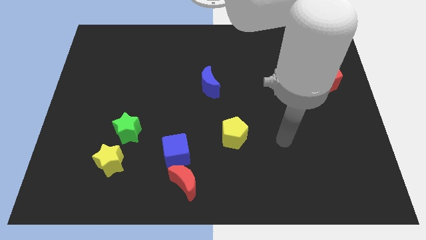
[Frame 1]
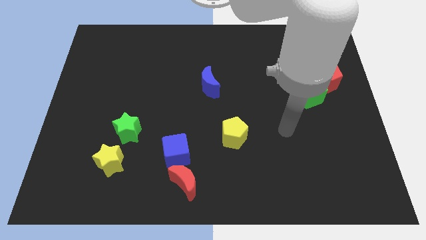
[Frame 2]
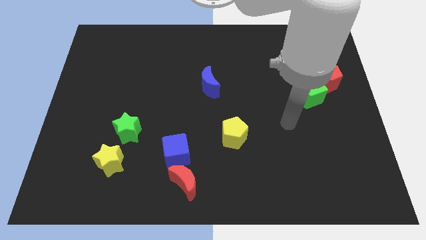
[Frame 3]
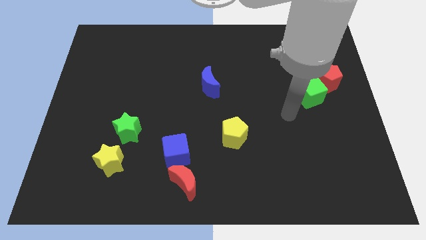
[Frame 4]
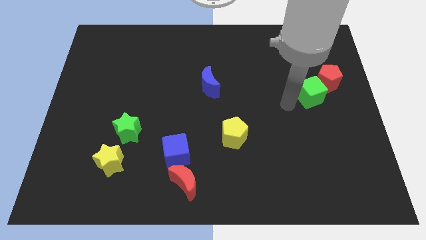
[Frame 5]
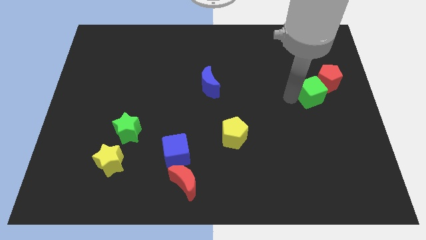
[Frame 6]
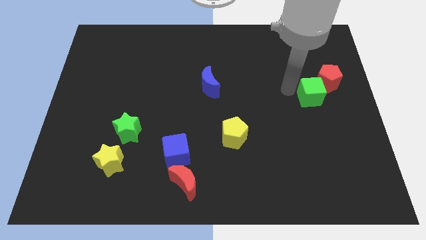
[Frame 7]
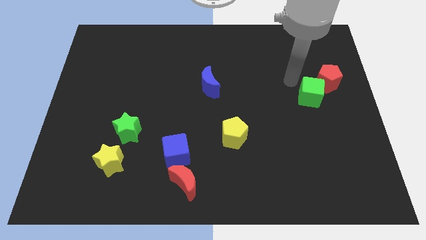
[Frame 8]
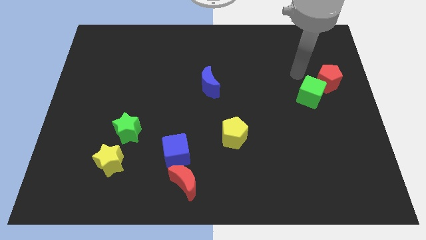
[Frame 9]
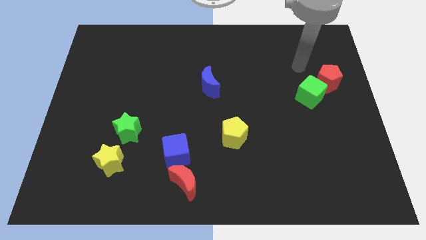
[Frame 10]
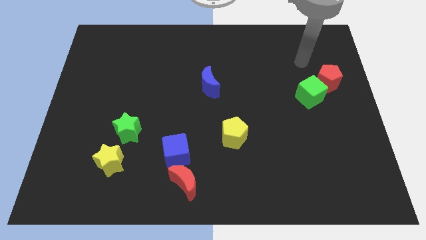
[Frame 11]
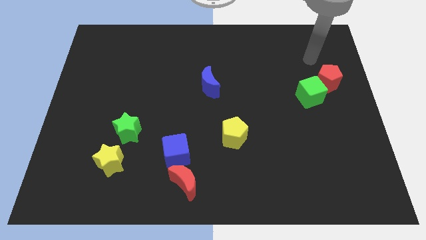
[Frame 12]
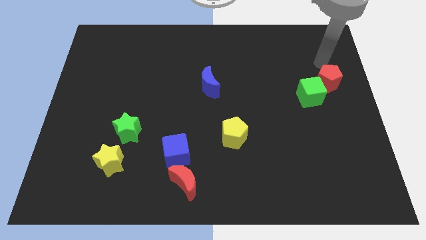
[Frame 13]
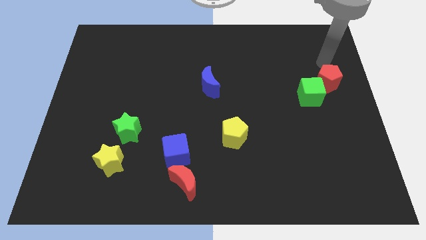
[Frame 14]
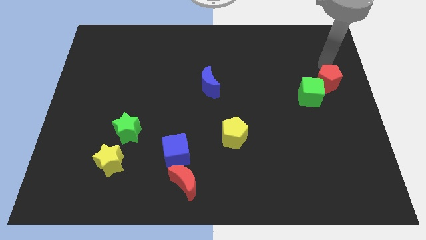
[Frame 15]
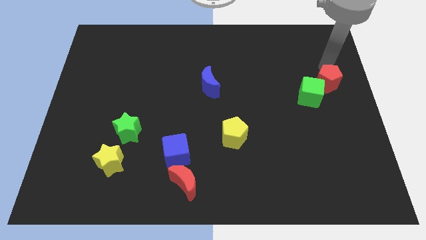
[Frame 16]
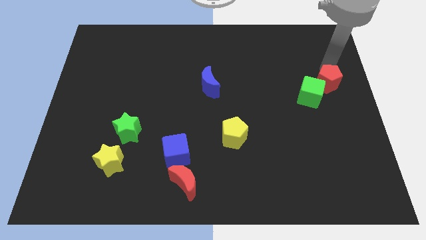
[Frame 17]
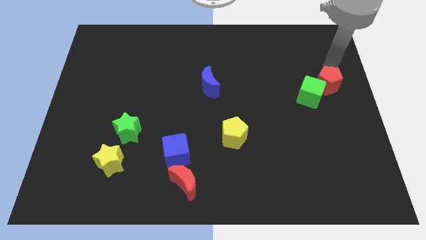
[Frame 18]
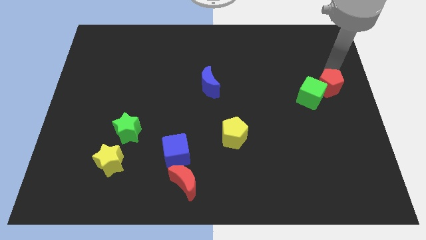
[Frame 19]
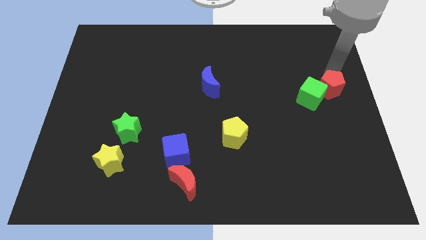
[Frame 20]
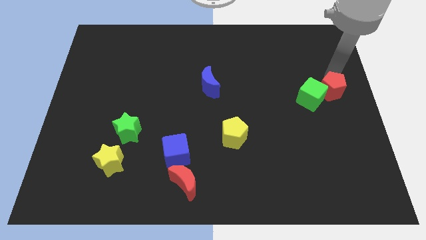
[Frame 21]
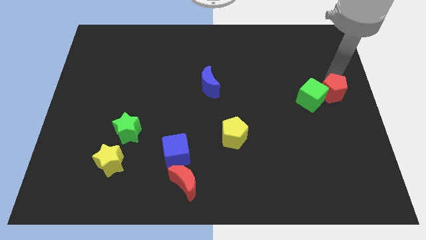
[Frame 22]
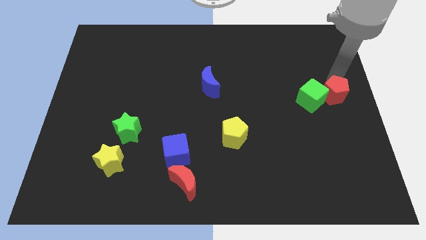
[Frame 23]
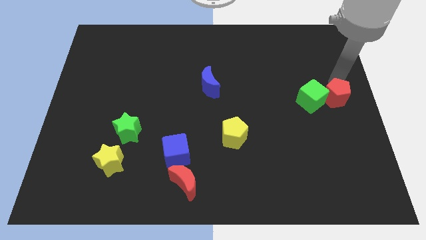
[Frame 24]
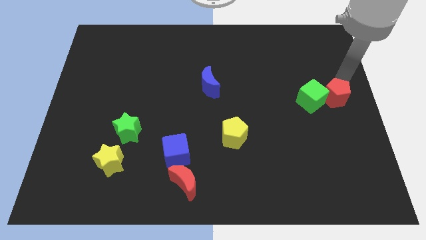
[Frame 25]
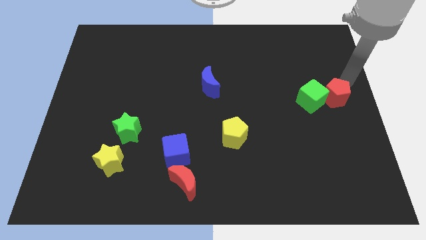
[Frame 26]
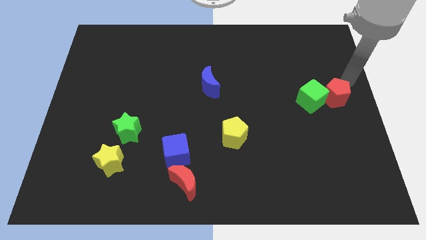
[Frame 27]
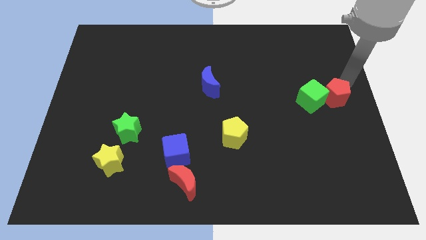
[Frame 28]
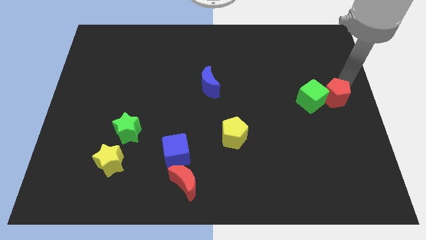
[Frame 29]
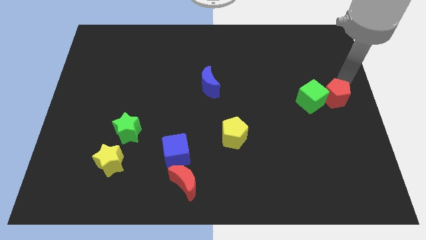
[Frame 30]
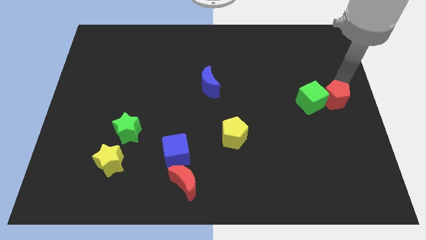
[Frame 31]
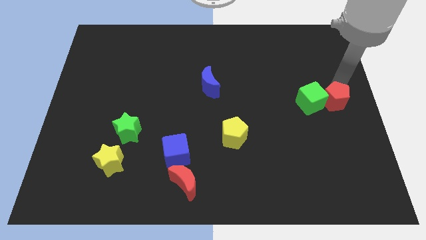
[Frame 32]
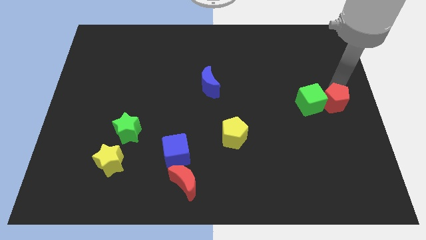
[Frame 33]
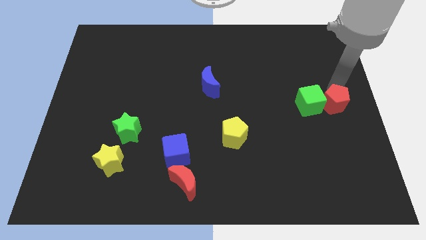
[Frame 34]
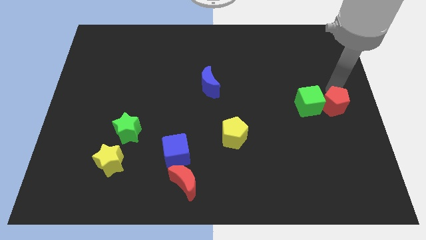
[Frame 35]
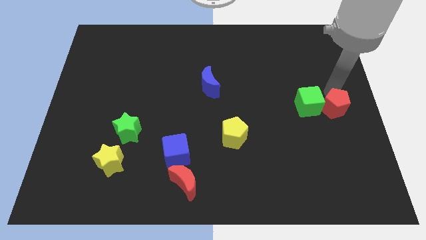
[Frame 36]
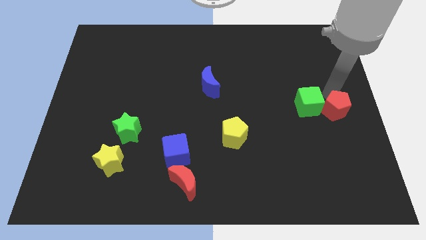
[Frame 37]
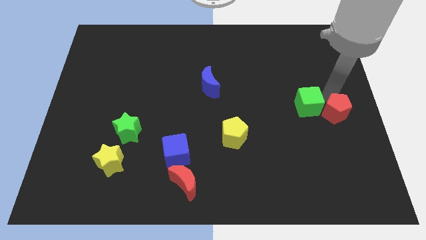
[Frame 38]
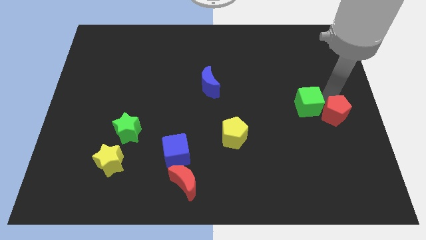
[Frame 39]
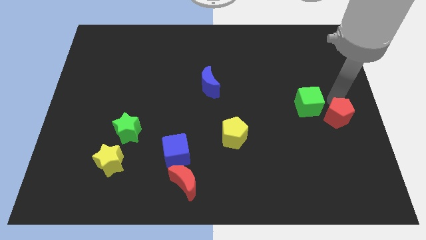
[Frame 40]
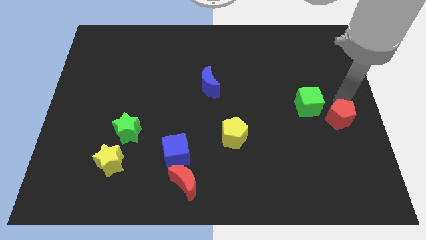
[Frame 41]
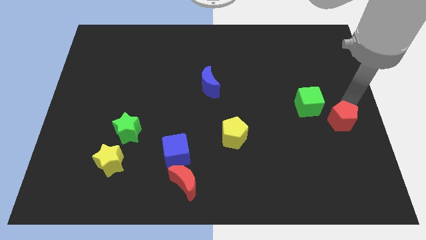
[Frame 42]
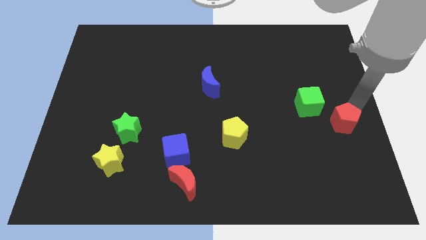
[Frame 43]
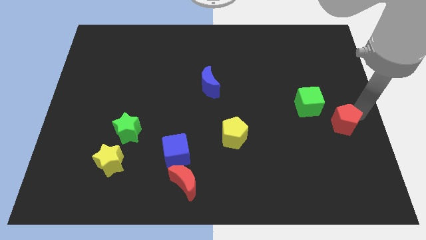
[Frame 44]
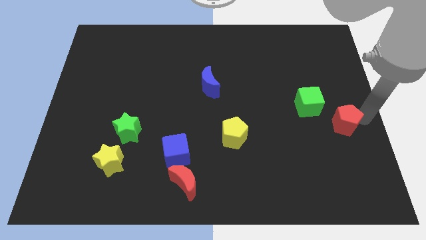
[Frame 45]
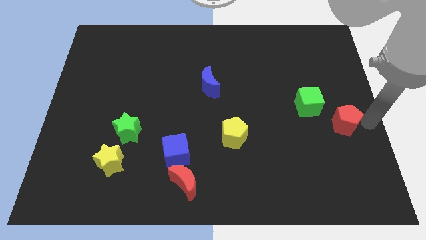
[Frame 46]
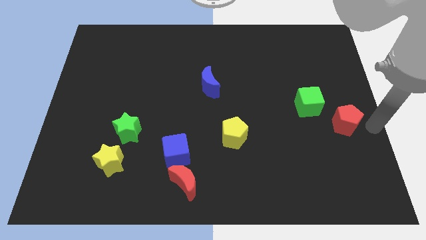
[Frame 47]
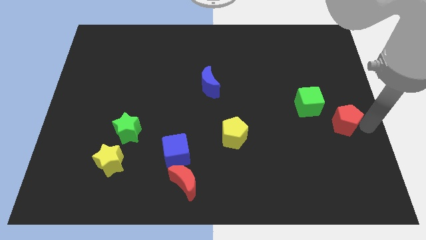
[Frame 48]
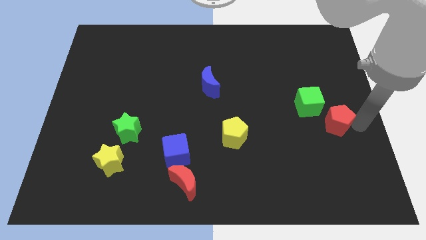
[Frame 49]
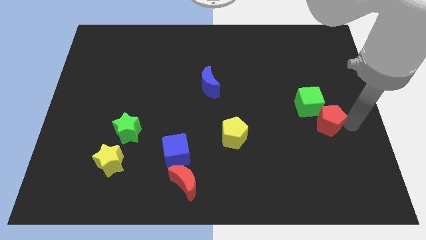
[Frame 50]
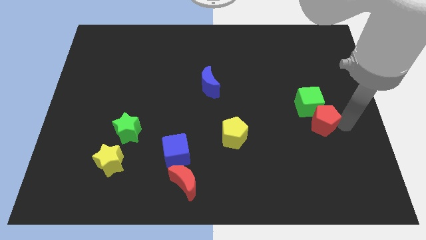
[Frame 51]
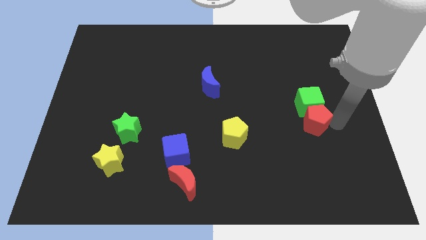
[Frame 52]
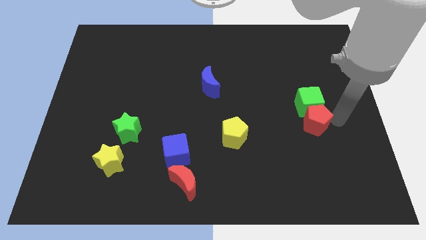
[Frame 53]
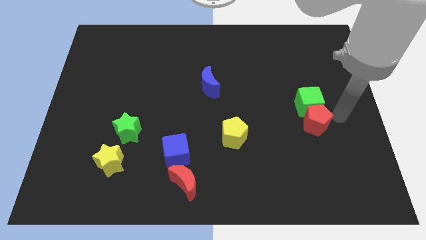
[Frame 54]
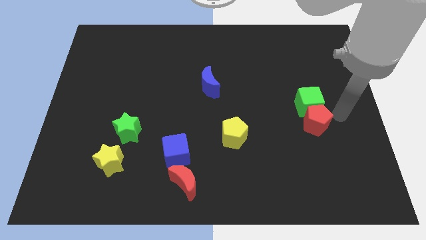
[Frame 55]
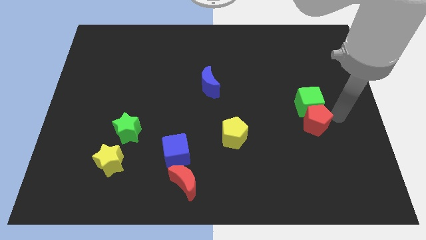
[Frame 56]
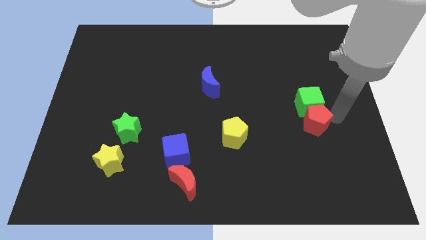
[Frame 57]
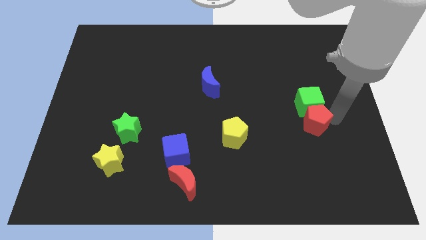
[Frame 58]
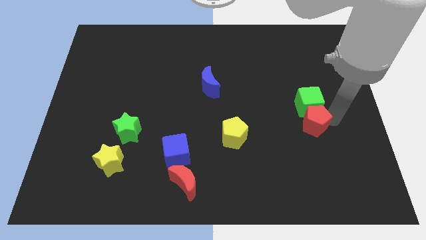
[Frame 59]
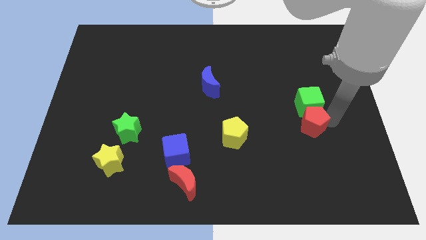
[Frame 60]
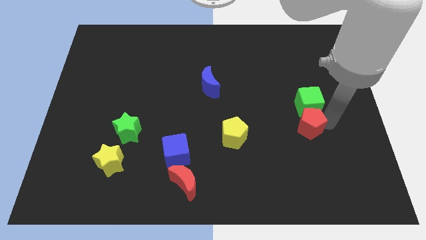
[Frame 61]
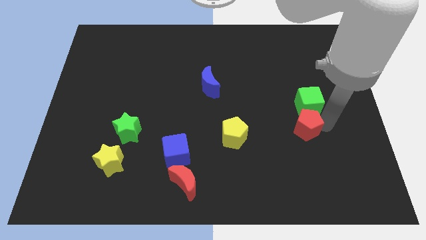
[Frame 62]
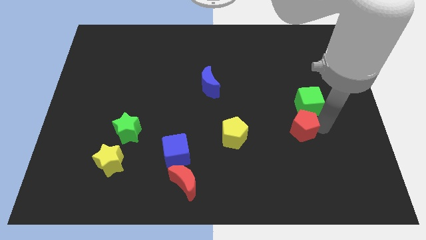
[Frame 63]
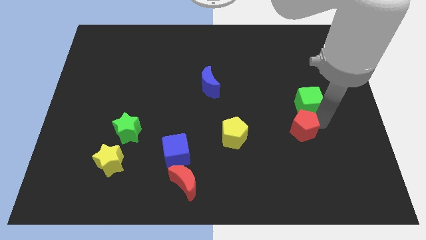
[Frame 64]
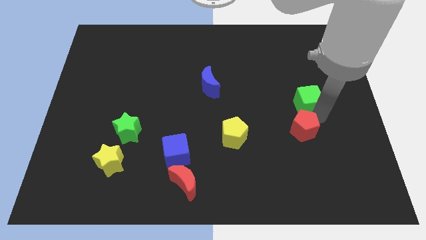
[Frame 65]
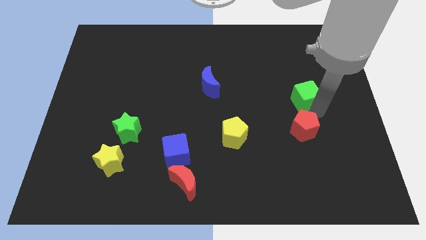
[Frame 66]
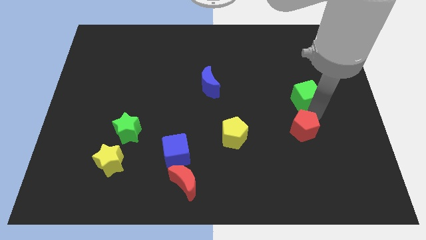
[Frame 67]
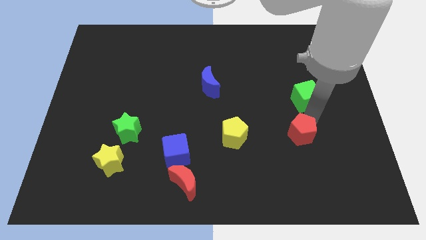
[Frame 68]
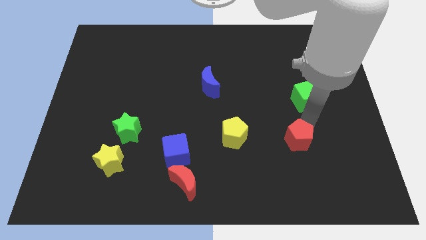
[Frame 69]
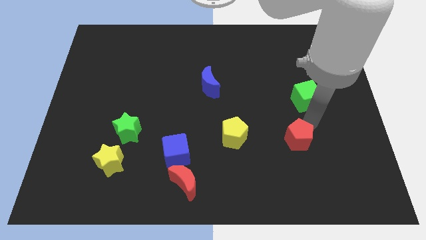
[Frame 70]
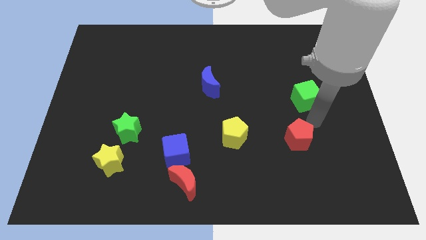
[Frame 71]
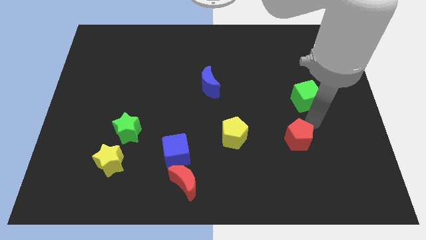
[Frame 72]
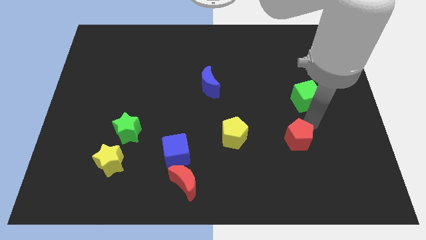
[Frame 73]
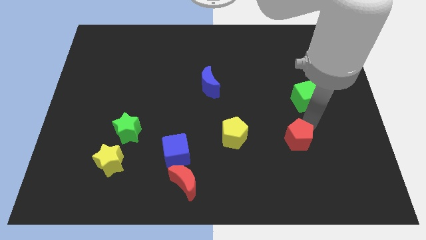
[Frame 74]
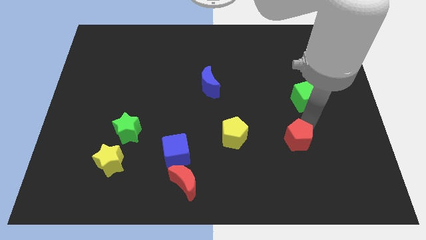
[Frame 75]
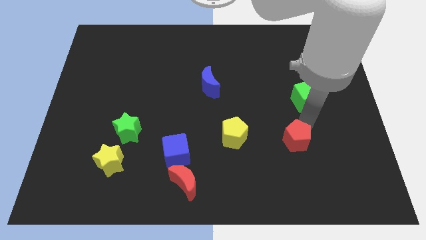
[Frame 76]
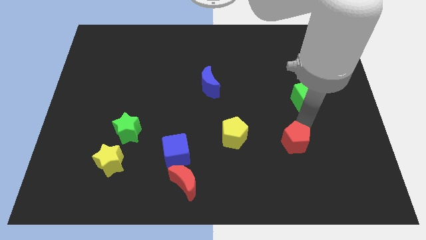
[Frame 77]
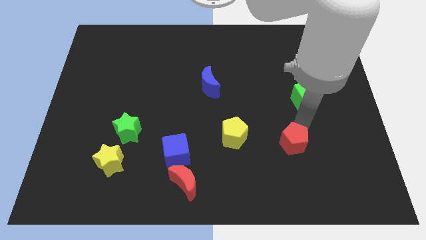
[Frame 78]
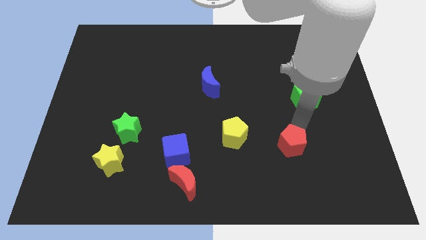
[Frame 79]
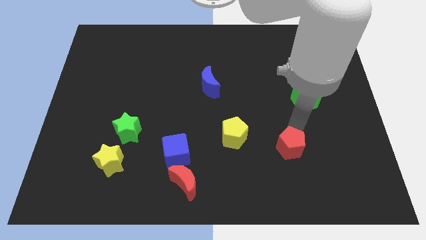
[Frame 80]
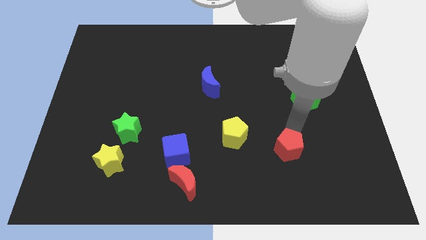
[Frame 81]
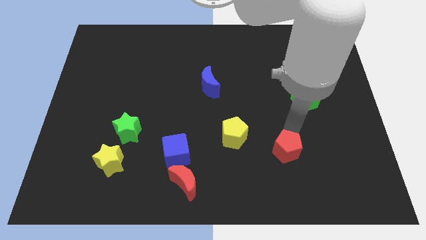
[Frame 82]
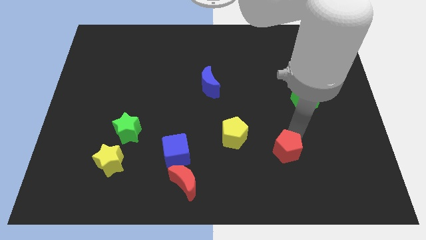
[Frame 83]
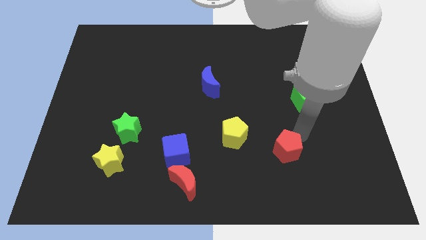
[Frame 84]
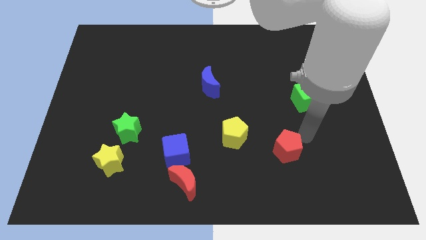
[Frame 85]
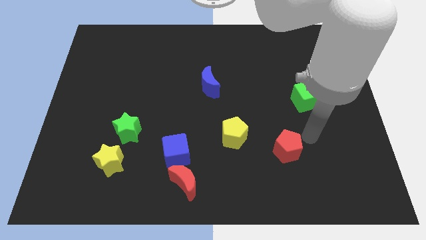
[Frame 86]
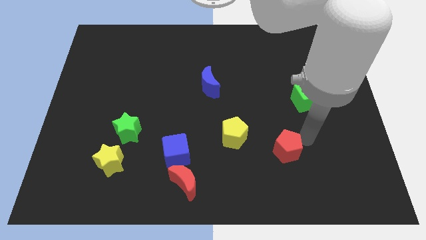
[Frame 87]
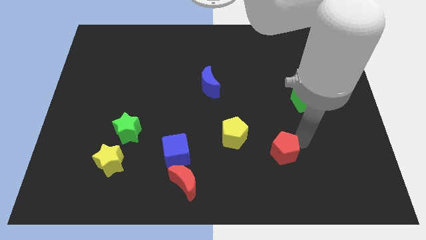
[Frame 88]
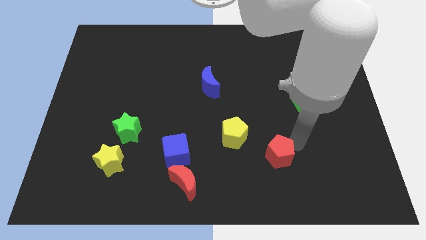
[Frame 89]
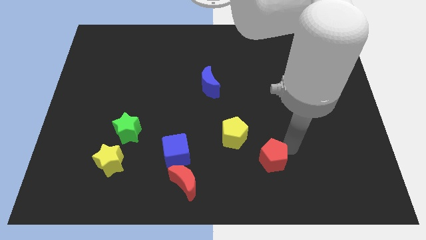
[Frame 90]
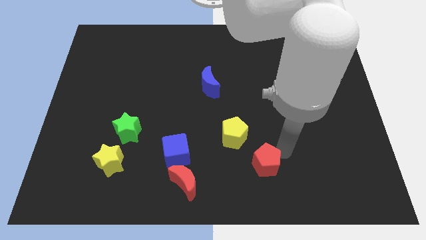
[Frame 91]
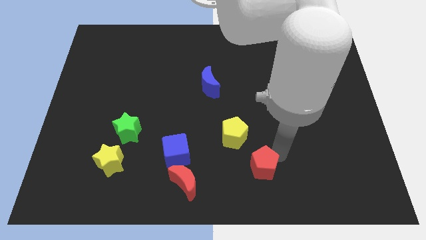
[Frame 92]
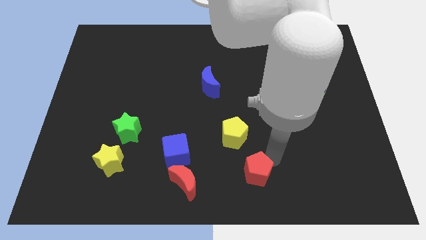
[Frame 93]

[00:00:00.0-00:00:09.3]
slide the red pentagon to the right side of the red moon
